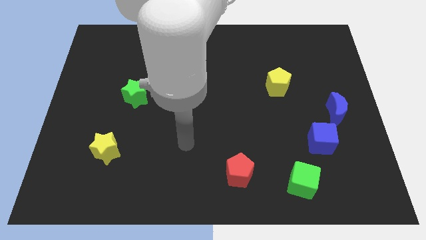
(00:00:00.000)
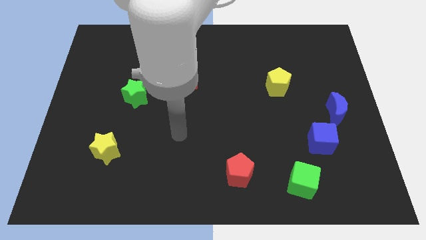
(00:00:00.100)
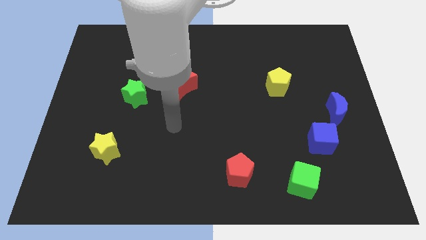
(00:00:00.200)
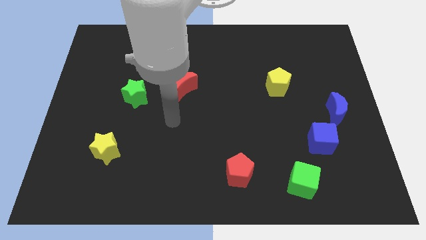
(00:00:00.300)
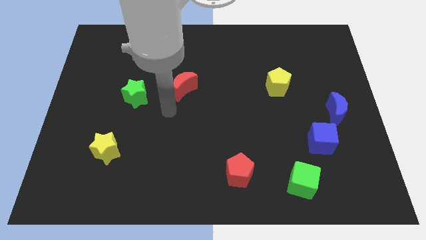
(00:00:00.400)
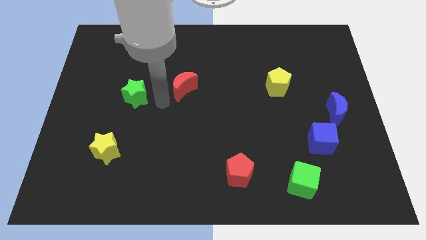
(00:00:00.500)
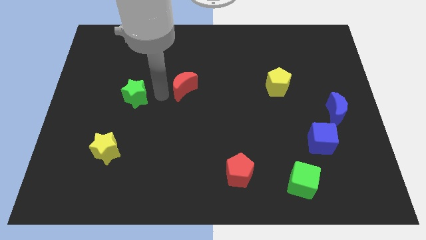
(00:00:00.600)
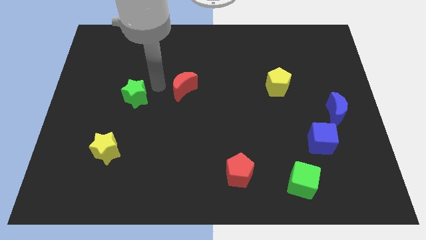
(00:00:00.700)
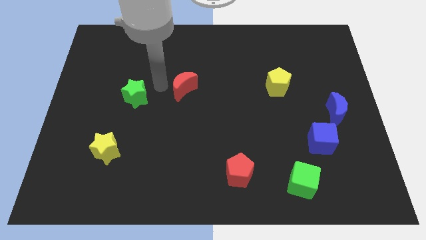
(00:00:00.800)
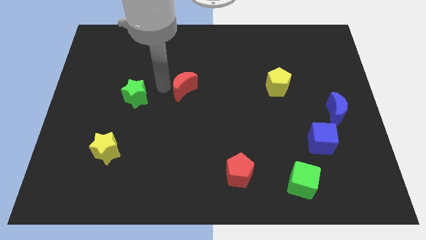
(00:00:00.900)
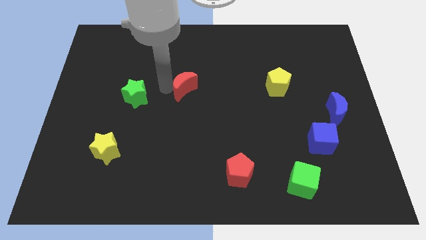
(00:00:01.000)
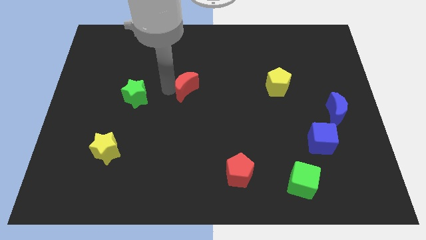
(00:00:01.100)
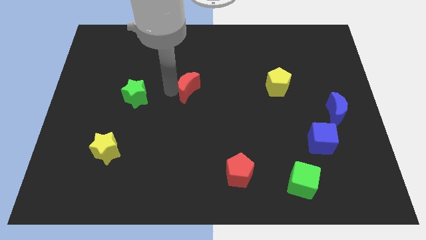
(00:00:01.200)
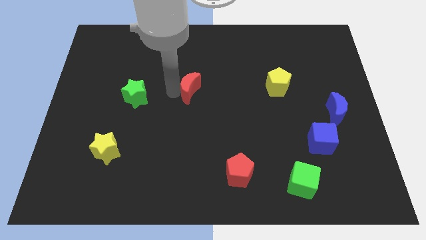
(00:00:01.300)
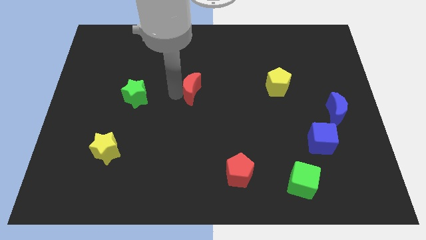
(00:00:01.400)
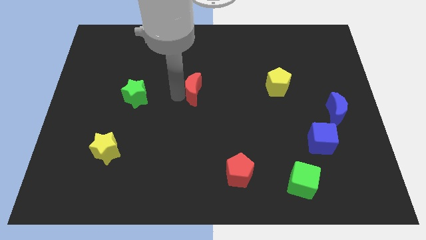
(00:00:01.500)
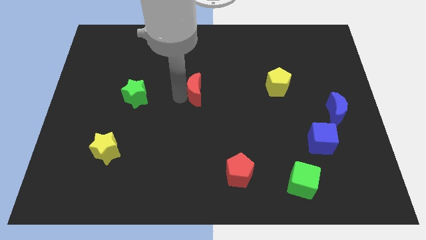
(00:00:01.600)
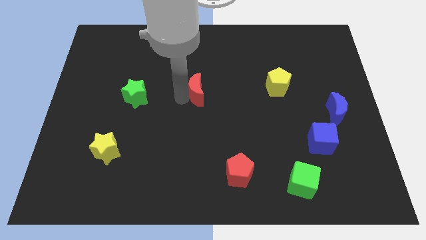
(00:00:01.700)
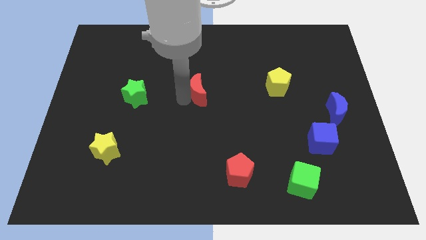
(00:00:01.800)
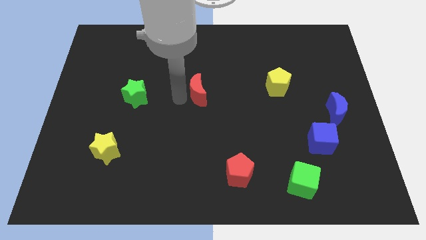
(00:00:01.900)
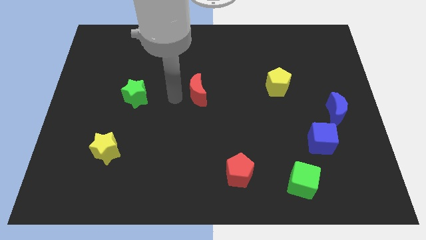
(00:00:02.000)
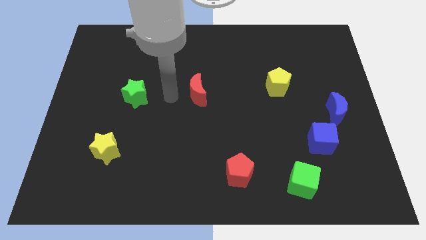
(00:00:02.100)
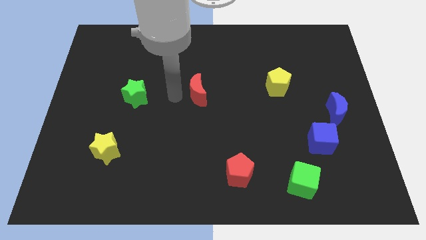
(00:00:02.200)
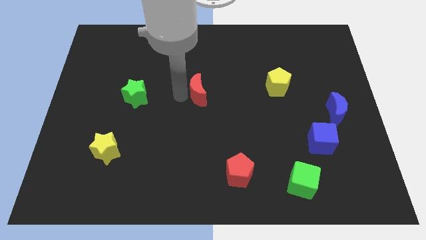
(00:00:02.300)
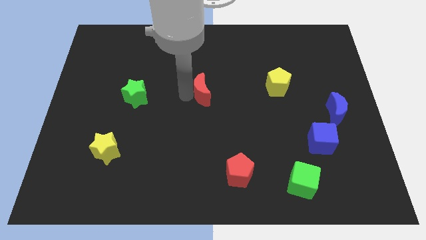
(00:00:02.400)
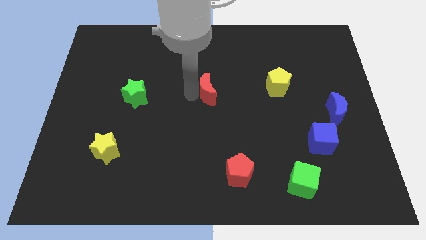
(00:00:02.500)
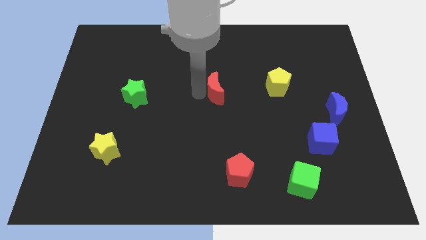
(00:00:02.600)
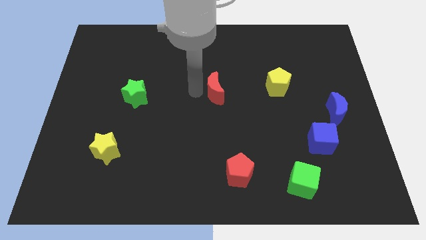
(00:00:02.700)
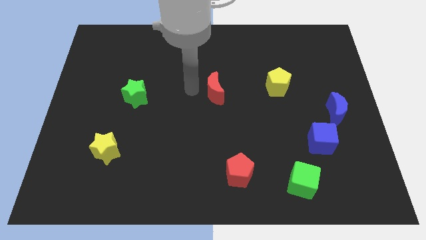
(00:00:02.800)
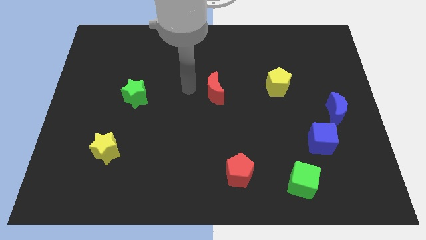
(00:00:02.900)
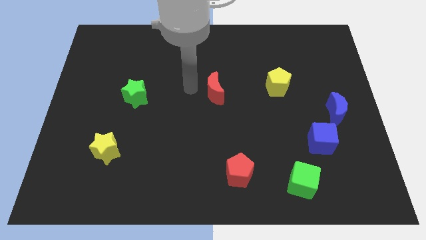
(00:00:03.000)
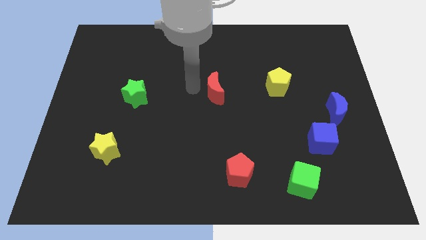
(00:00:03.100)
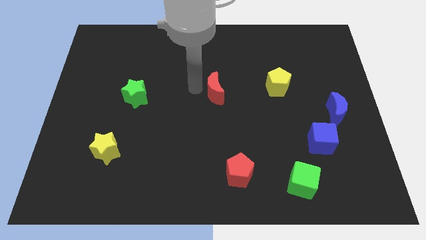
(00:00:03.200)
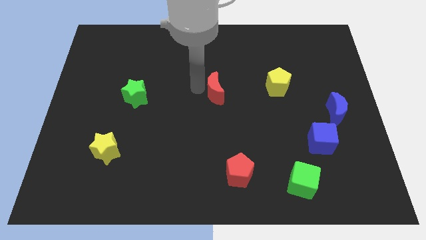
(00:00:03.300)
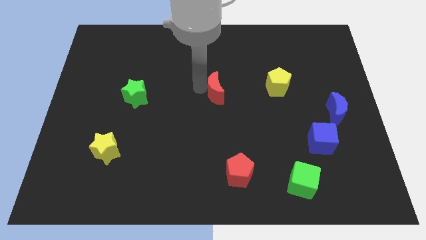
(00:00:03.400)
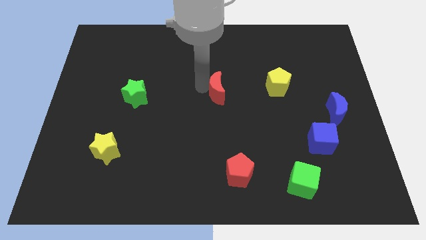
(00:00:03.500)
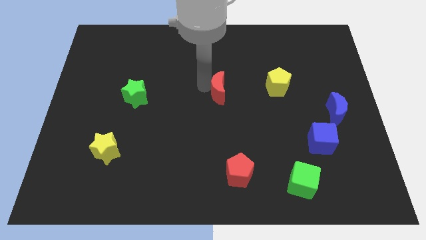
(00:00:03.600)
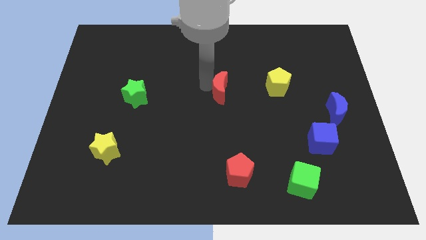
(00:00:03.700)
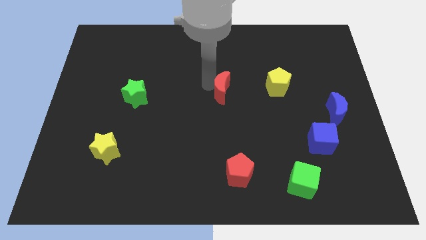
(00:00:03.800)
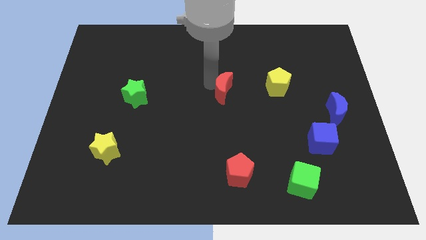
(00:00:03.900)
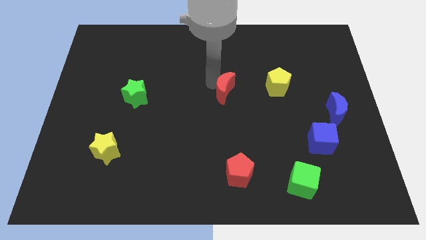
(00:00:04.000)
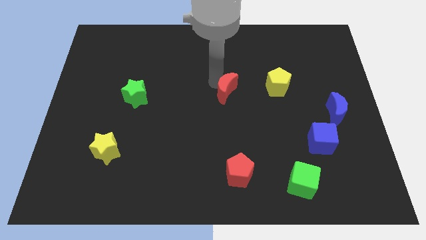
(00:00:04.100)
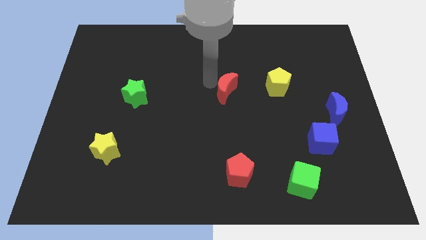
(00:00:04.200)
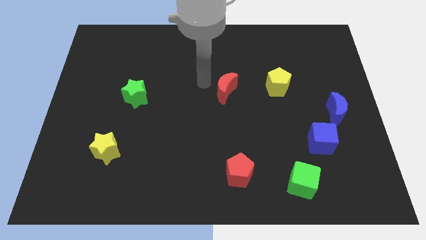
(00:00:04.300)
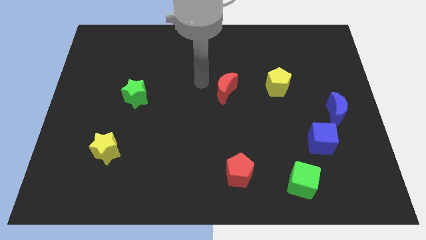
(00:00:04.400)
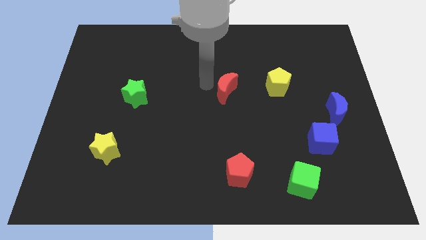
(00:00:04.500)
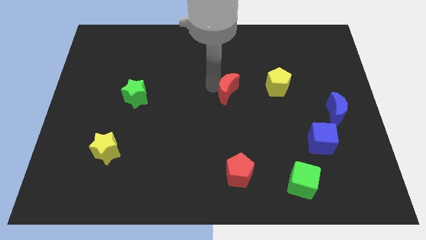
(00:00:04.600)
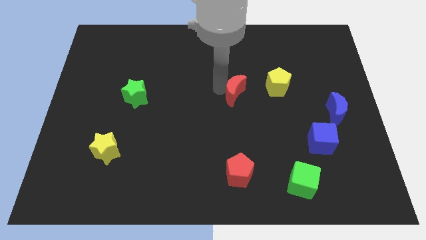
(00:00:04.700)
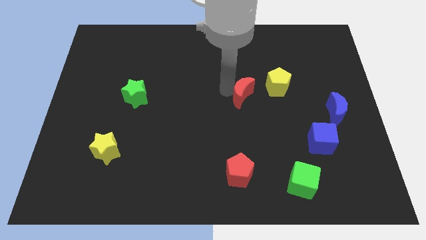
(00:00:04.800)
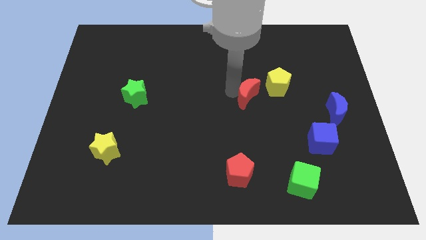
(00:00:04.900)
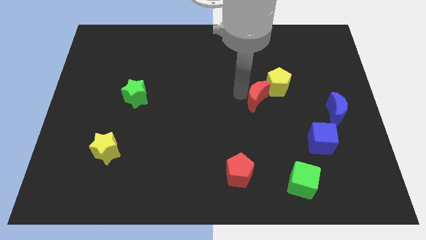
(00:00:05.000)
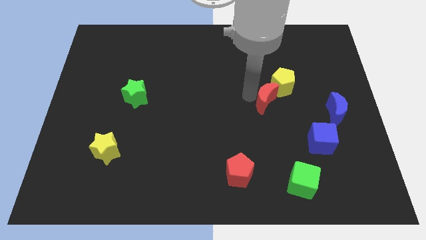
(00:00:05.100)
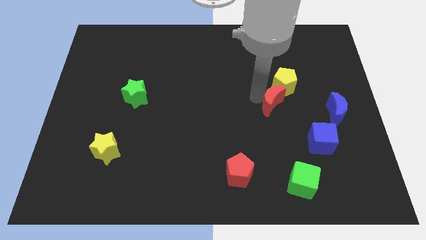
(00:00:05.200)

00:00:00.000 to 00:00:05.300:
slide the red moon to the left side of the blue moon

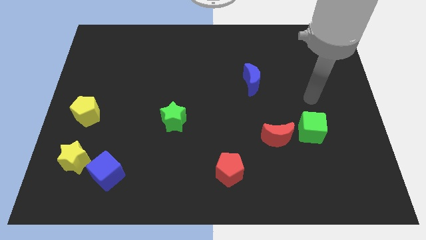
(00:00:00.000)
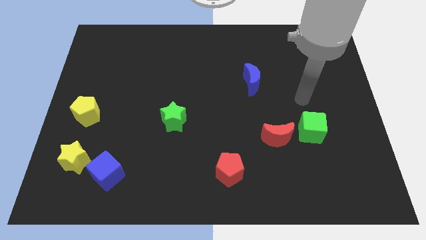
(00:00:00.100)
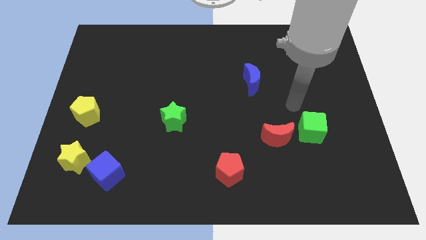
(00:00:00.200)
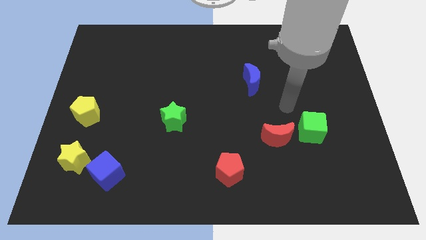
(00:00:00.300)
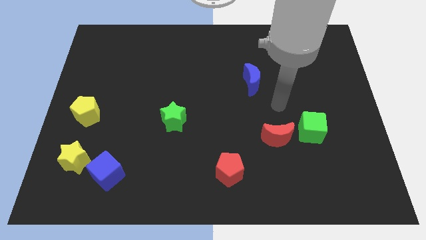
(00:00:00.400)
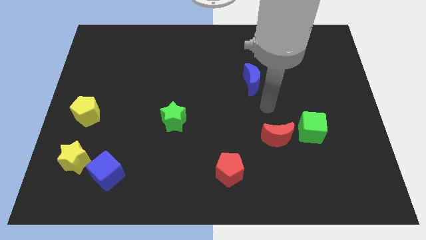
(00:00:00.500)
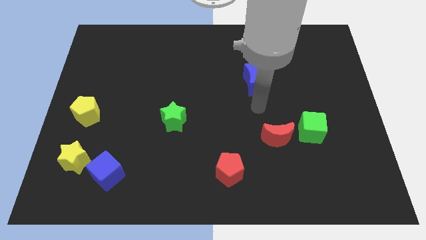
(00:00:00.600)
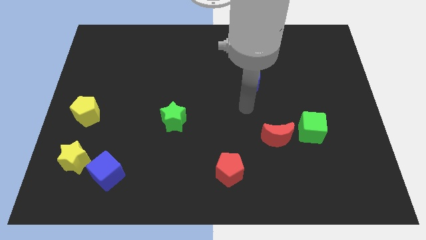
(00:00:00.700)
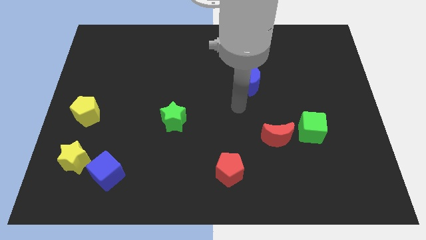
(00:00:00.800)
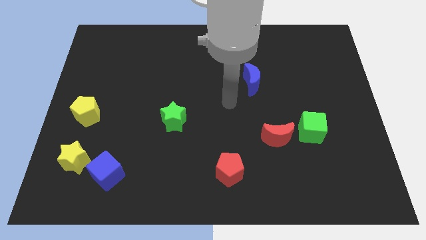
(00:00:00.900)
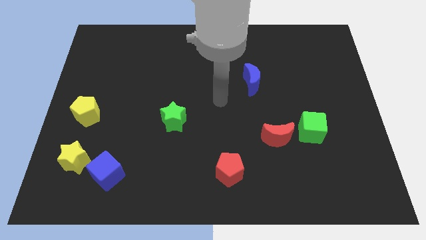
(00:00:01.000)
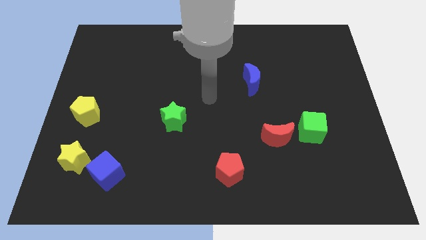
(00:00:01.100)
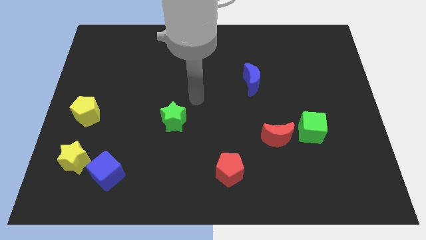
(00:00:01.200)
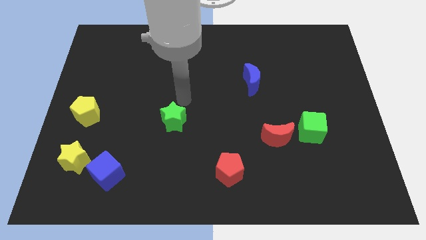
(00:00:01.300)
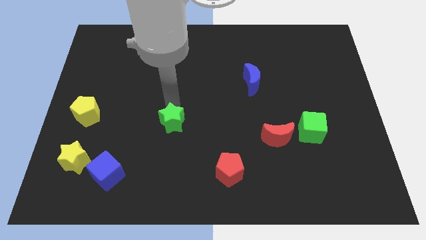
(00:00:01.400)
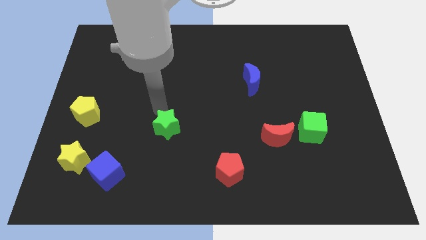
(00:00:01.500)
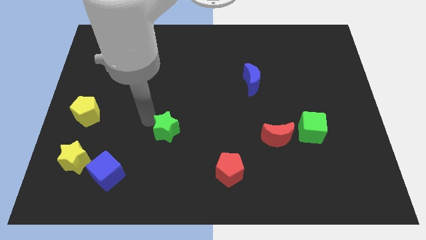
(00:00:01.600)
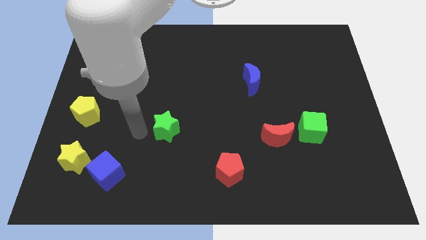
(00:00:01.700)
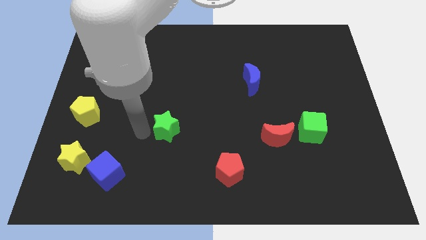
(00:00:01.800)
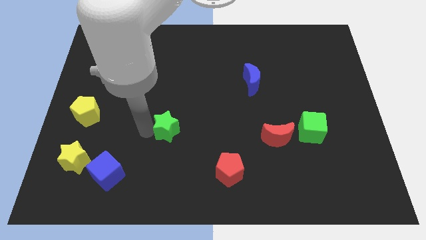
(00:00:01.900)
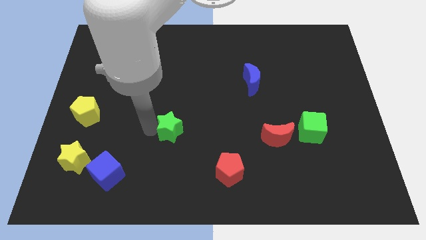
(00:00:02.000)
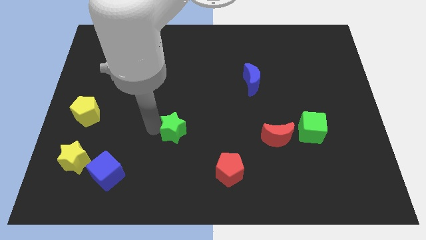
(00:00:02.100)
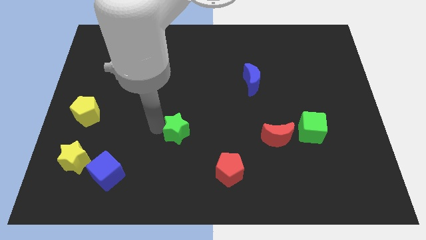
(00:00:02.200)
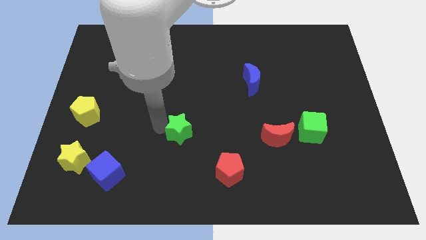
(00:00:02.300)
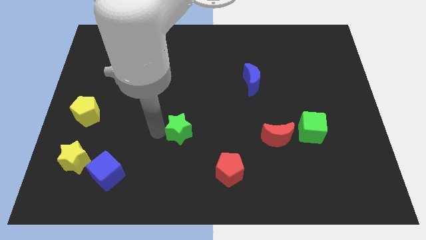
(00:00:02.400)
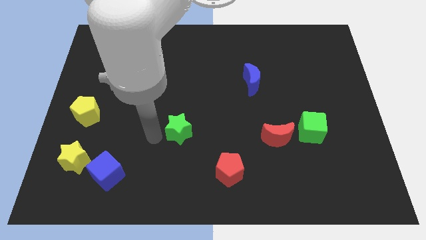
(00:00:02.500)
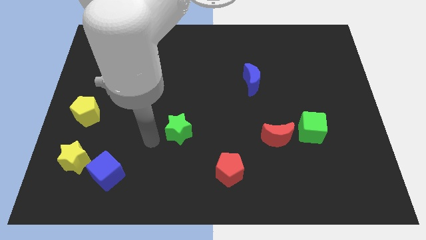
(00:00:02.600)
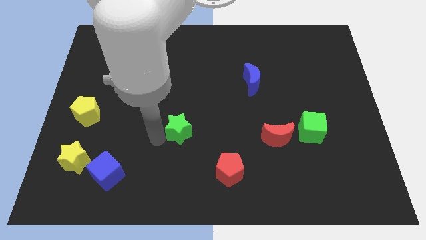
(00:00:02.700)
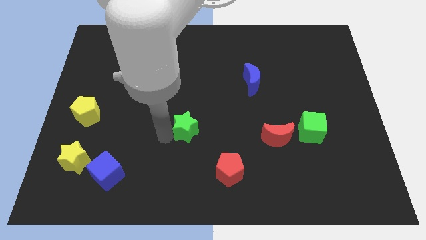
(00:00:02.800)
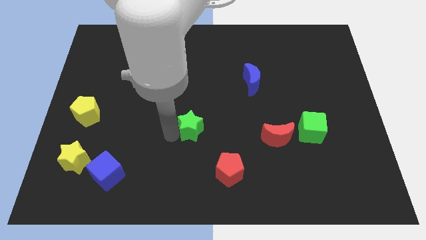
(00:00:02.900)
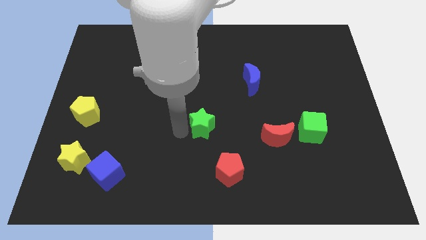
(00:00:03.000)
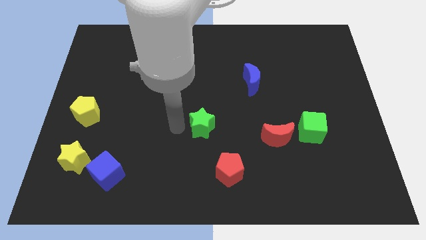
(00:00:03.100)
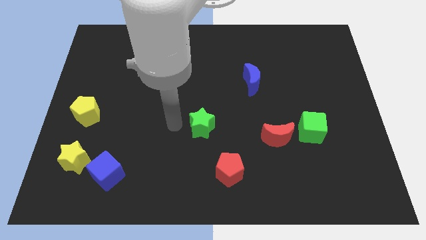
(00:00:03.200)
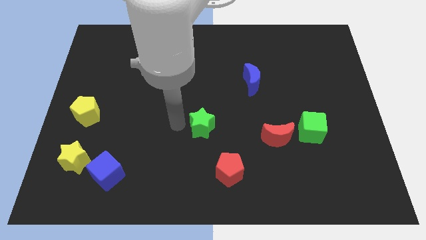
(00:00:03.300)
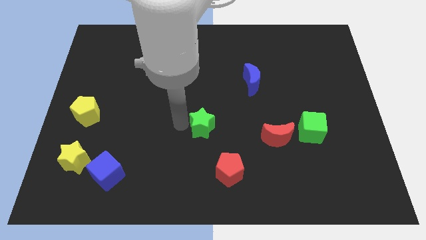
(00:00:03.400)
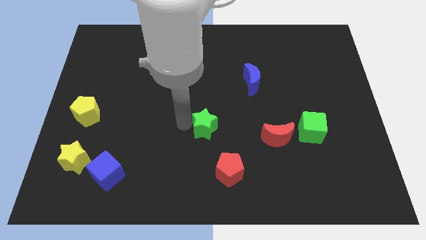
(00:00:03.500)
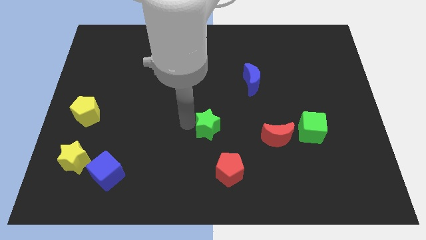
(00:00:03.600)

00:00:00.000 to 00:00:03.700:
slide the green star to the top side of the red pentagon
